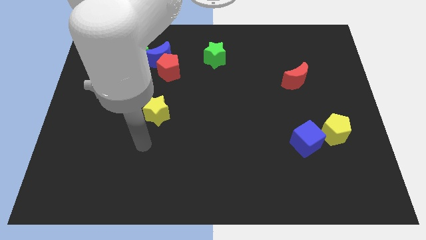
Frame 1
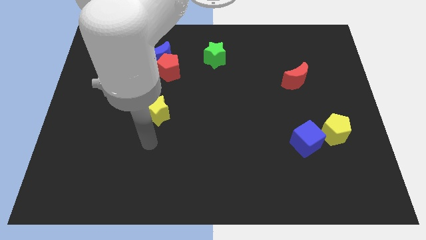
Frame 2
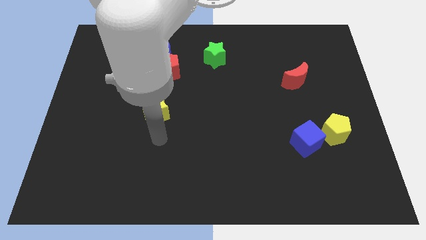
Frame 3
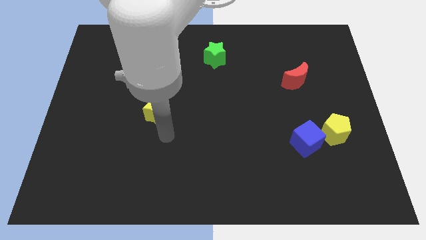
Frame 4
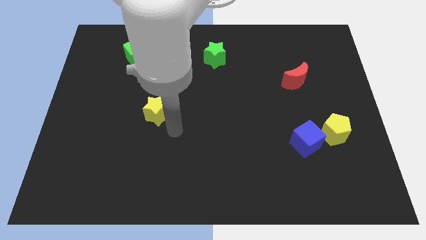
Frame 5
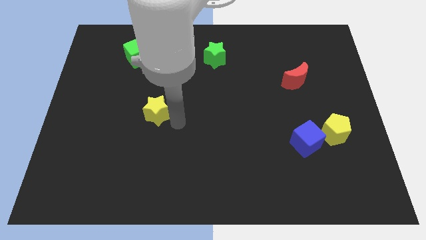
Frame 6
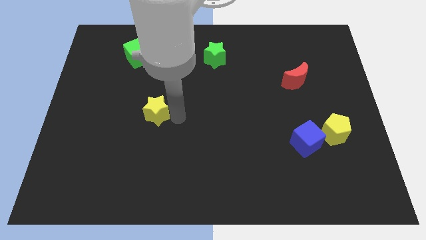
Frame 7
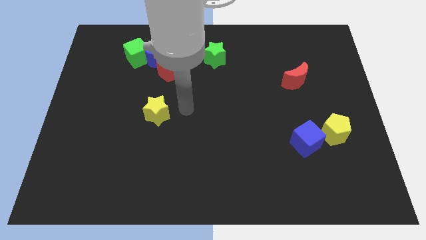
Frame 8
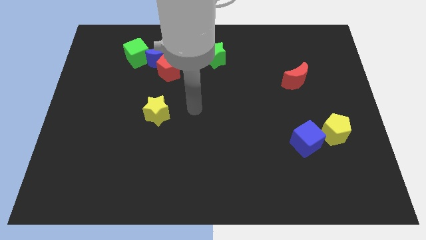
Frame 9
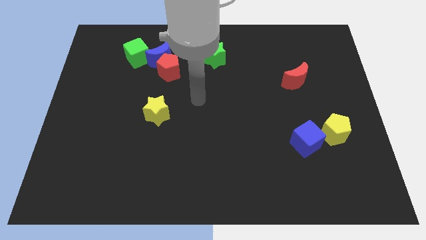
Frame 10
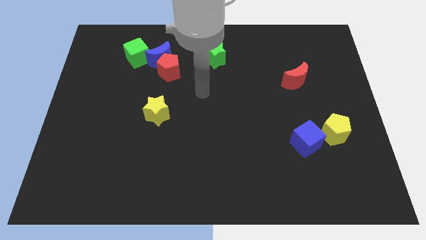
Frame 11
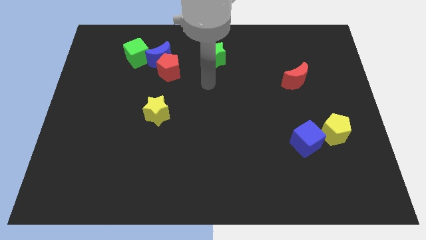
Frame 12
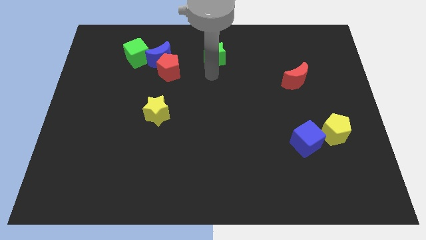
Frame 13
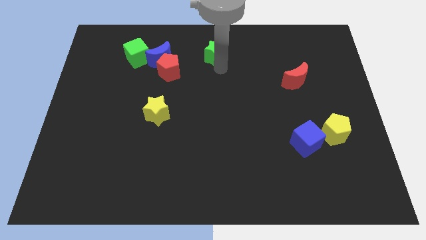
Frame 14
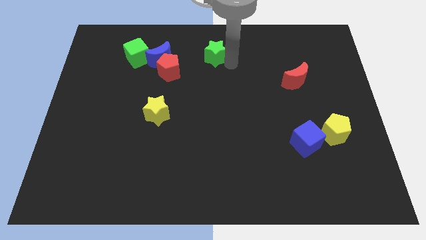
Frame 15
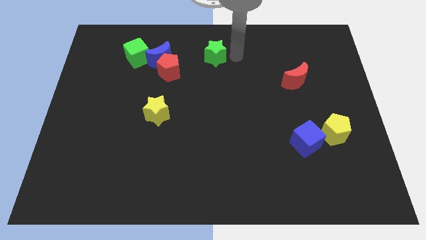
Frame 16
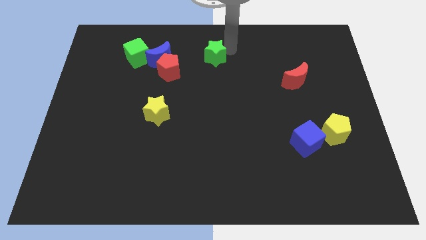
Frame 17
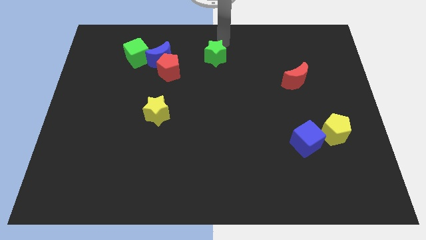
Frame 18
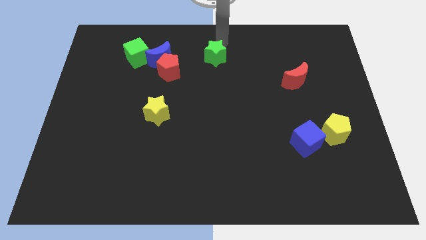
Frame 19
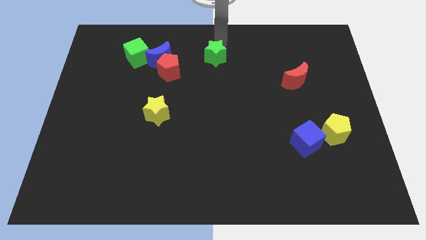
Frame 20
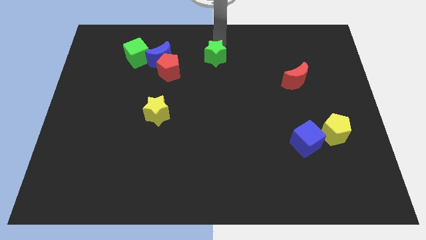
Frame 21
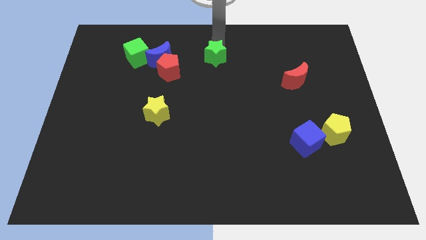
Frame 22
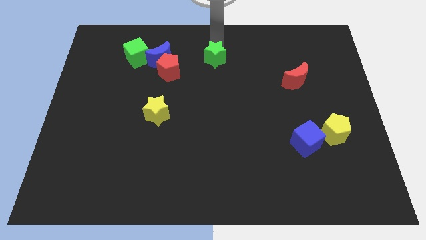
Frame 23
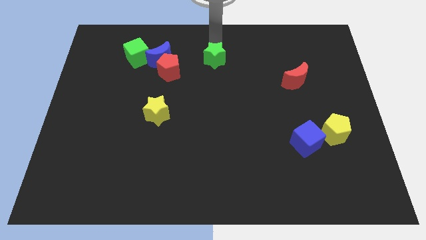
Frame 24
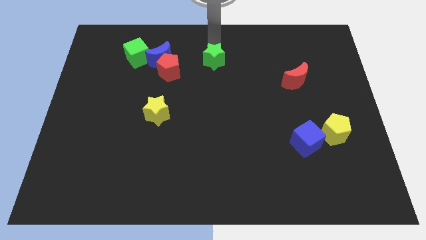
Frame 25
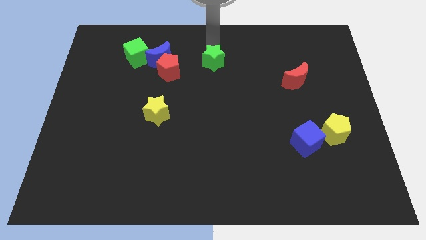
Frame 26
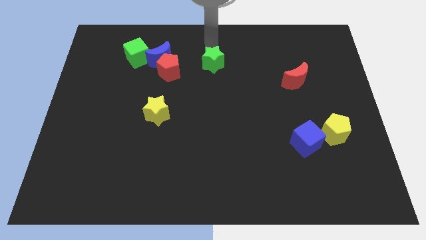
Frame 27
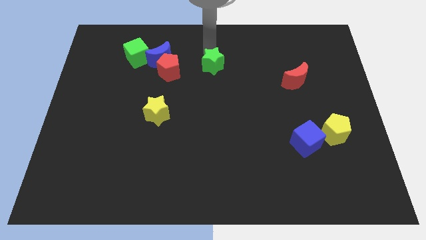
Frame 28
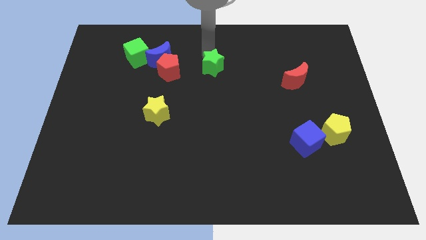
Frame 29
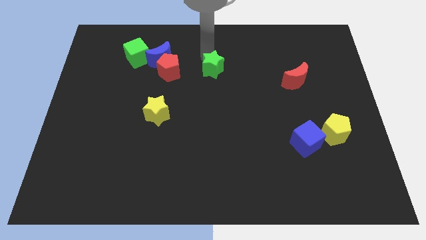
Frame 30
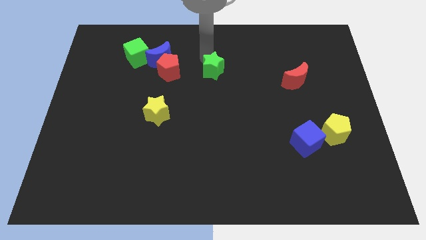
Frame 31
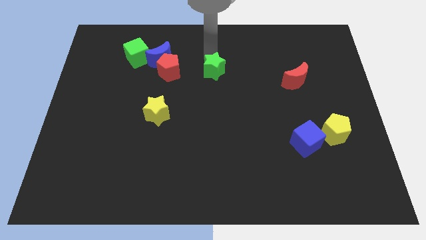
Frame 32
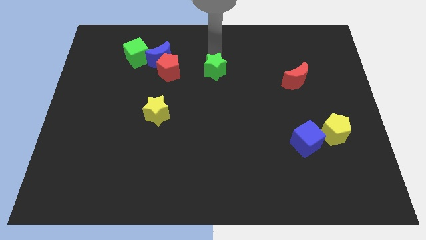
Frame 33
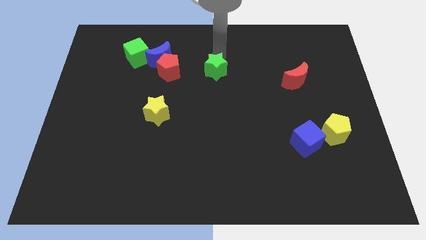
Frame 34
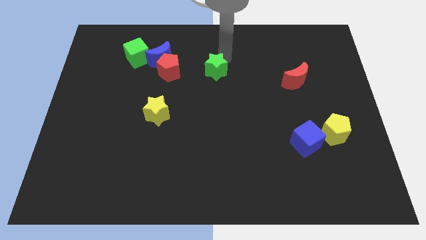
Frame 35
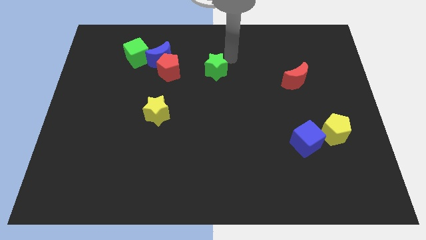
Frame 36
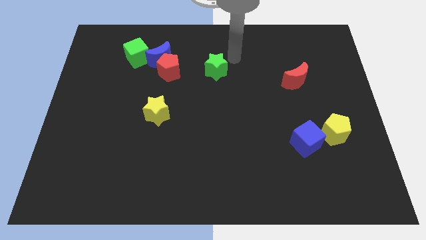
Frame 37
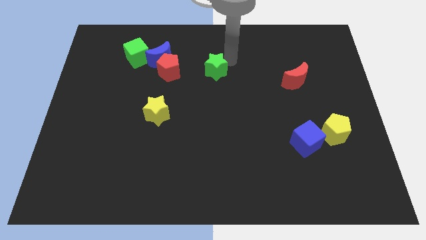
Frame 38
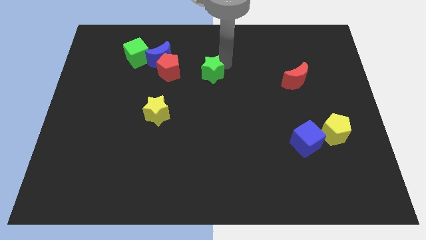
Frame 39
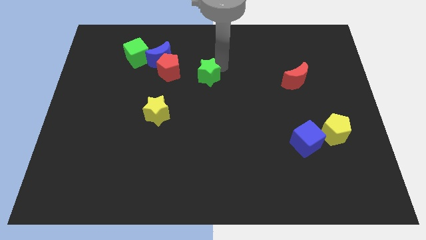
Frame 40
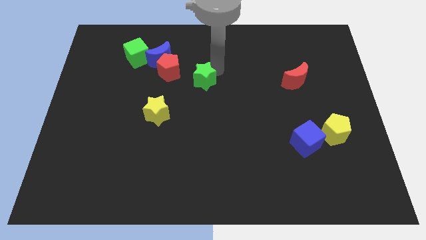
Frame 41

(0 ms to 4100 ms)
push the green star down and left a bit

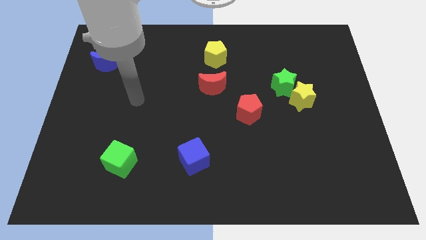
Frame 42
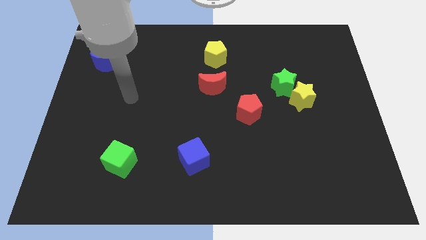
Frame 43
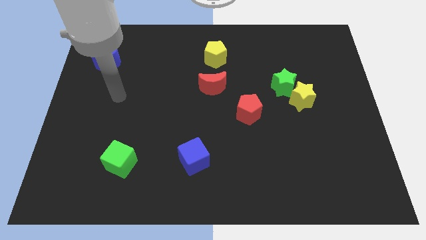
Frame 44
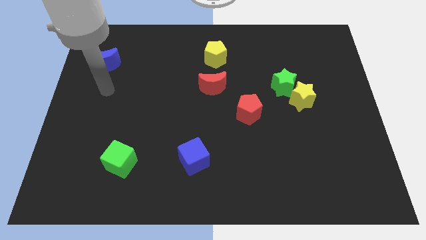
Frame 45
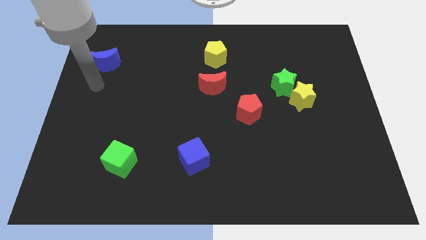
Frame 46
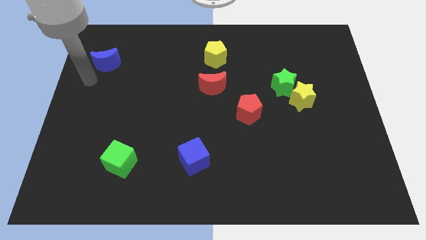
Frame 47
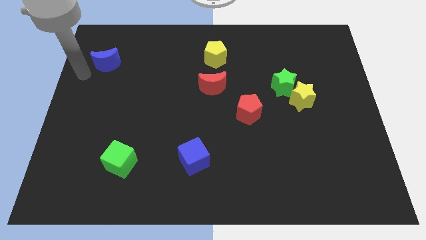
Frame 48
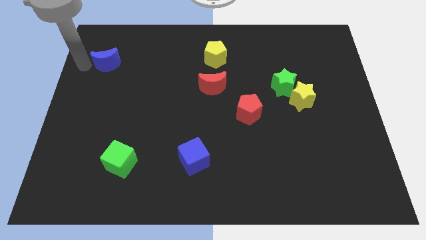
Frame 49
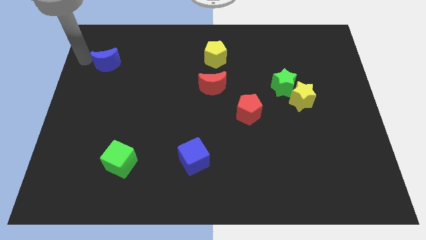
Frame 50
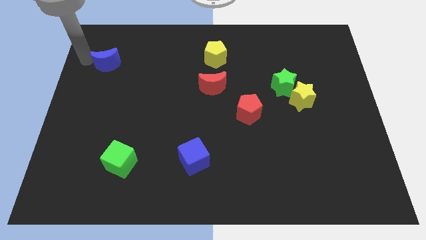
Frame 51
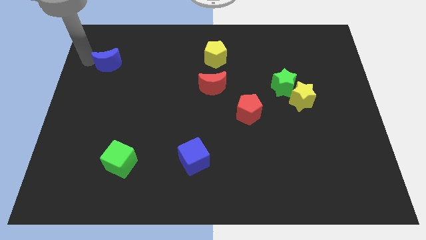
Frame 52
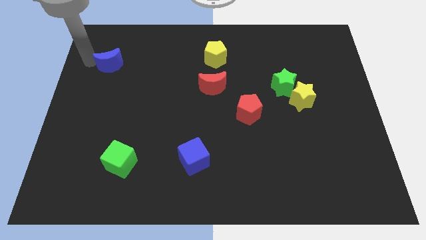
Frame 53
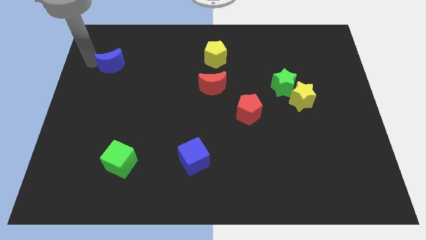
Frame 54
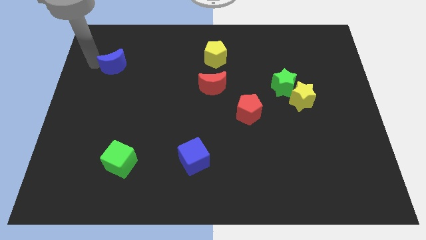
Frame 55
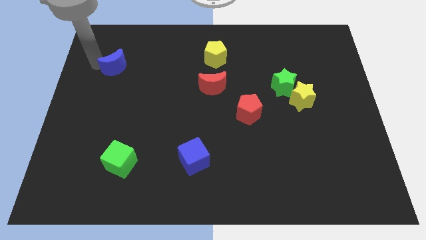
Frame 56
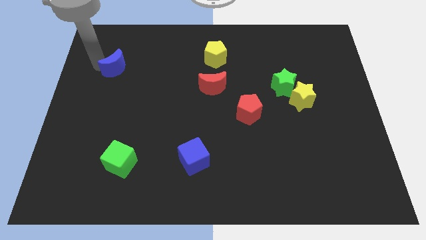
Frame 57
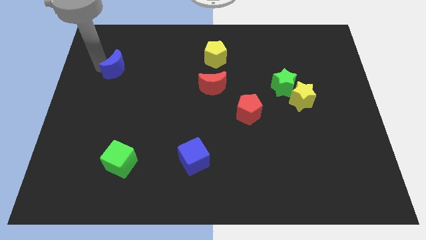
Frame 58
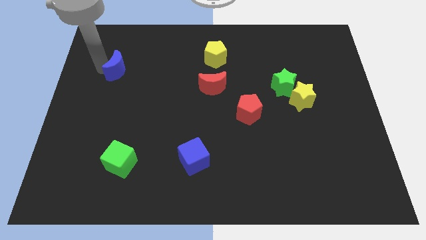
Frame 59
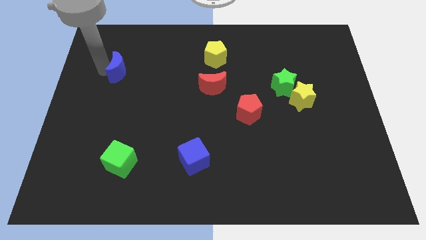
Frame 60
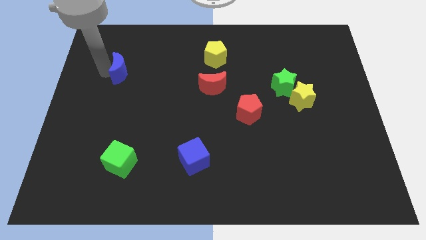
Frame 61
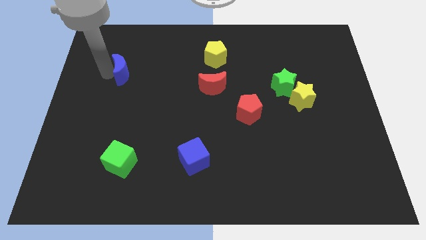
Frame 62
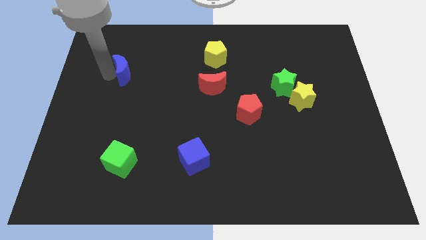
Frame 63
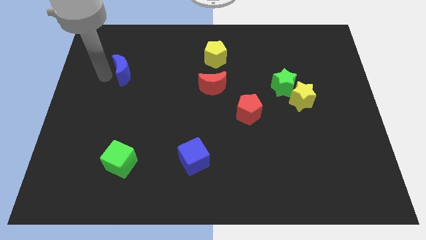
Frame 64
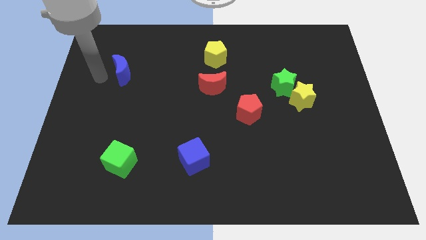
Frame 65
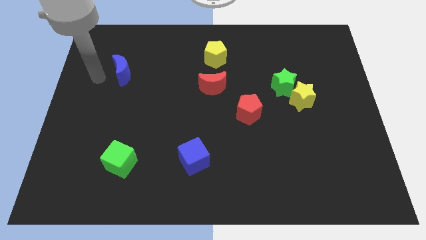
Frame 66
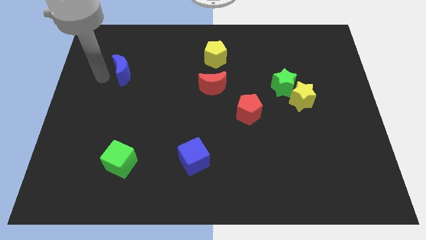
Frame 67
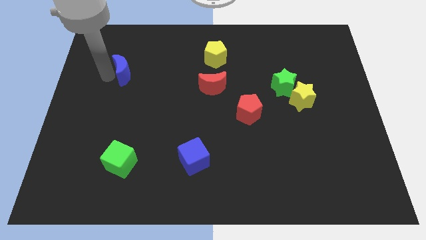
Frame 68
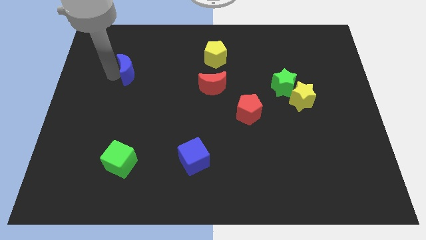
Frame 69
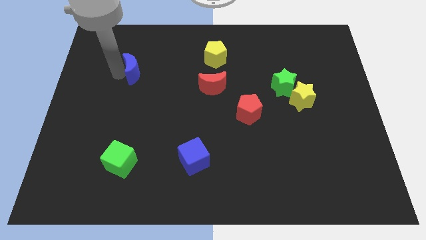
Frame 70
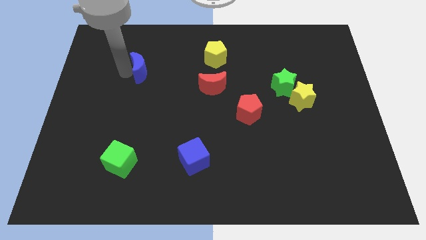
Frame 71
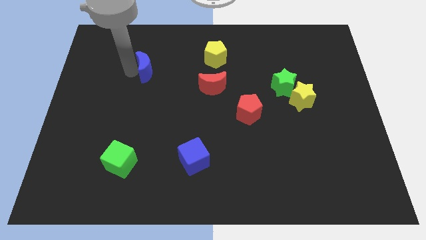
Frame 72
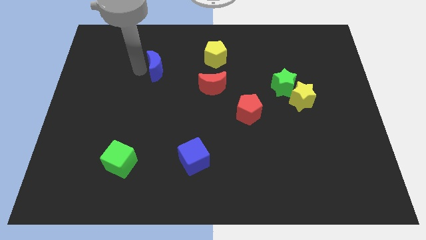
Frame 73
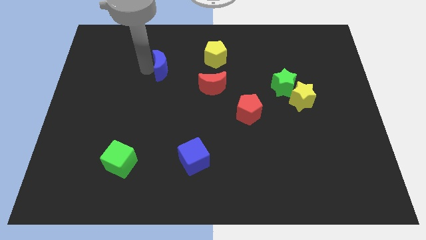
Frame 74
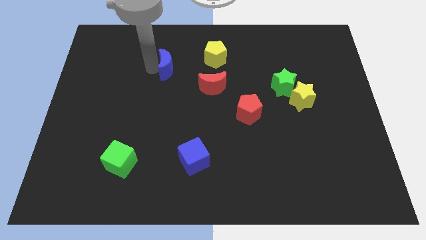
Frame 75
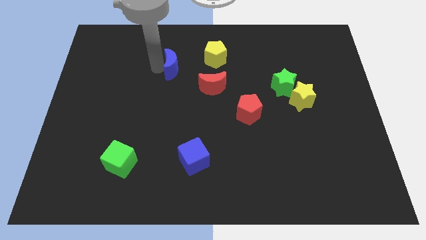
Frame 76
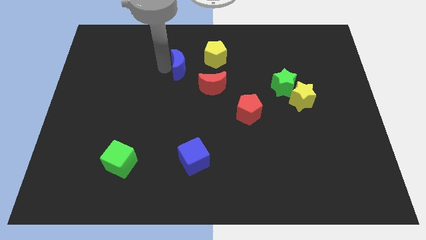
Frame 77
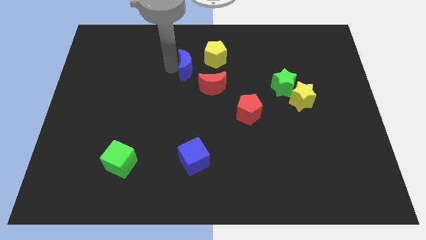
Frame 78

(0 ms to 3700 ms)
push the blue moon right
